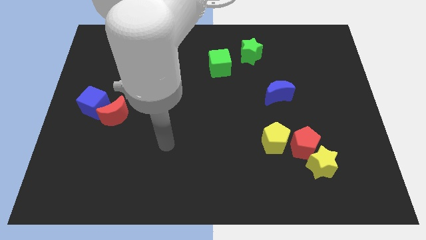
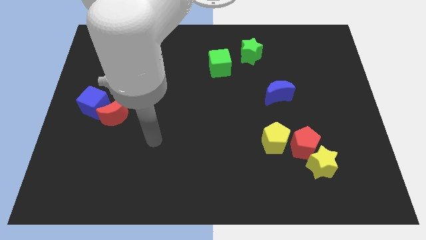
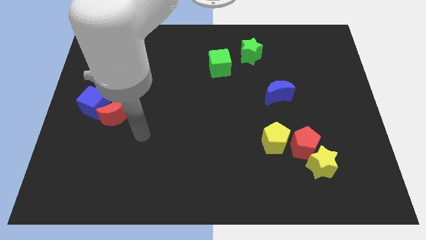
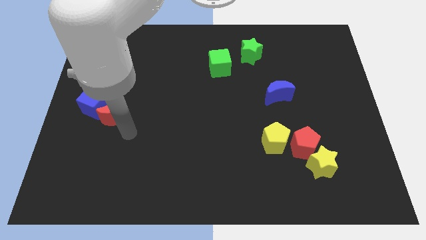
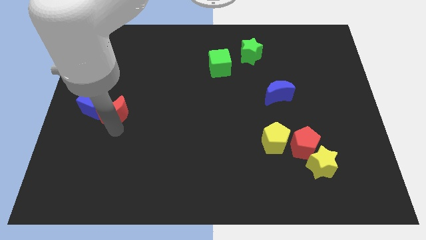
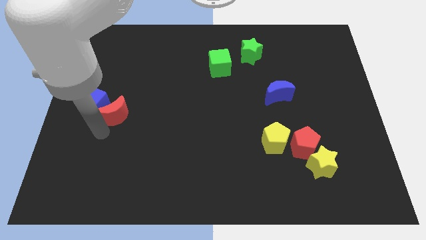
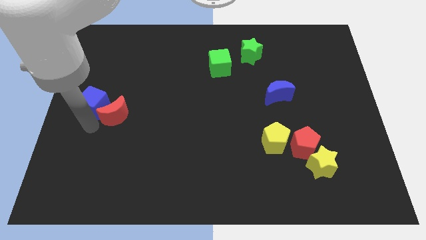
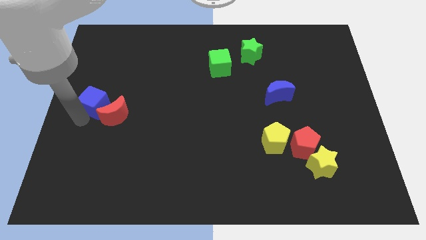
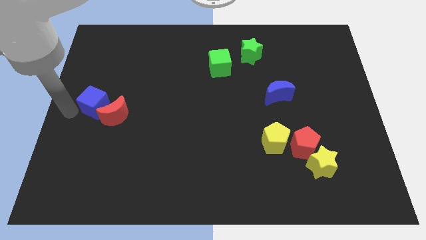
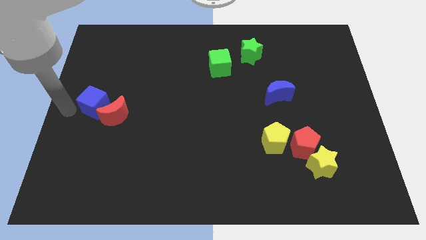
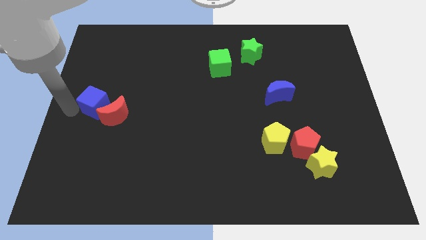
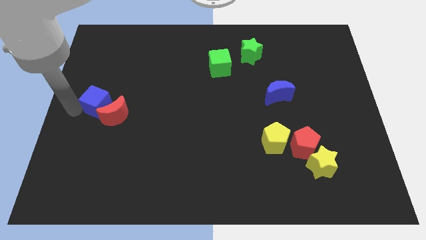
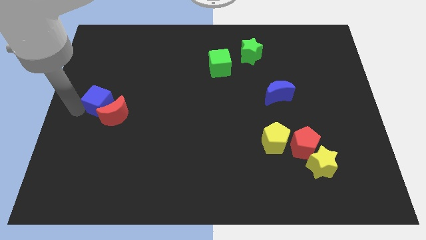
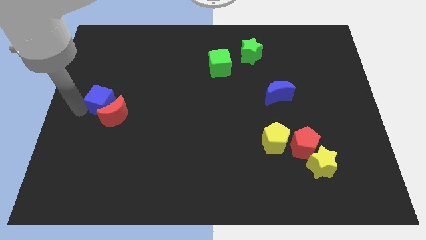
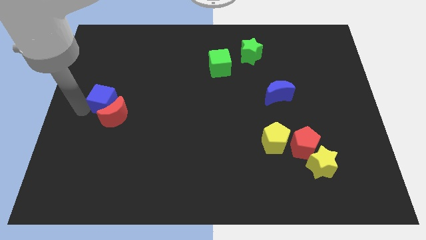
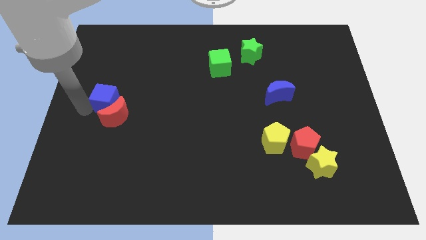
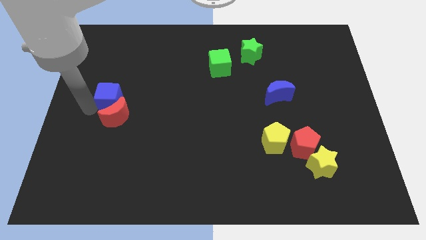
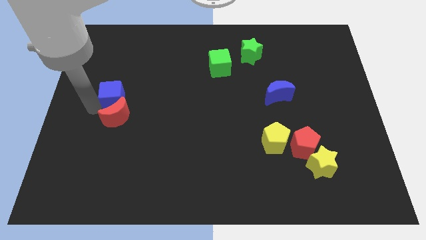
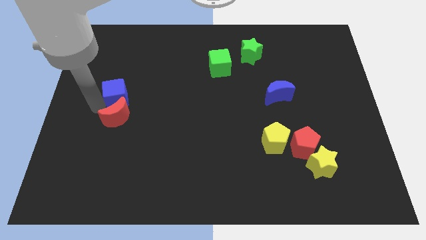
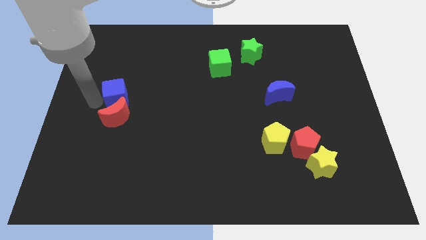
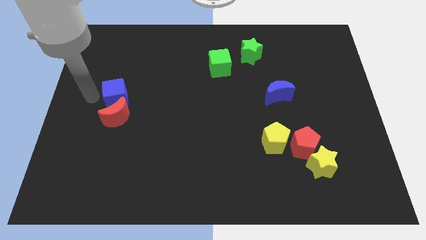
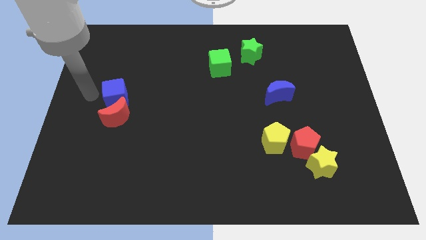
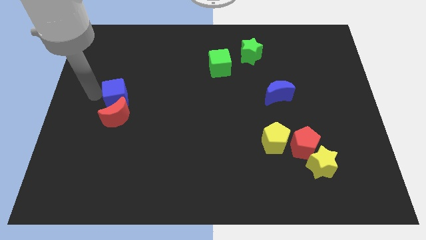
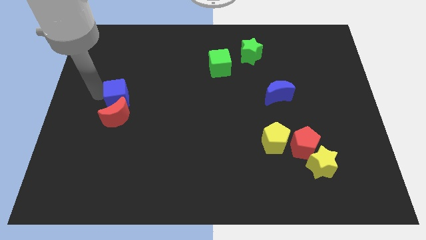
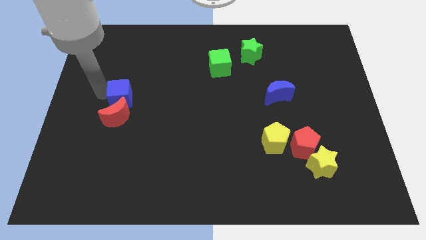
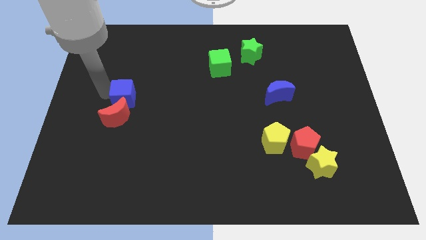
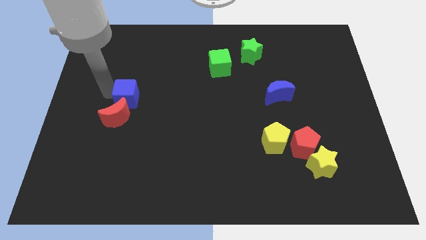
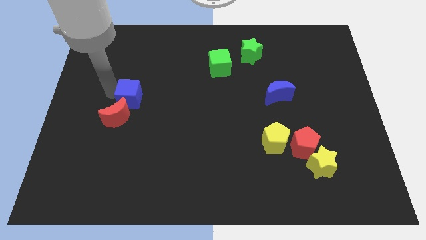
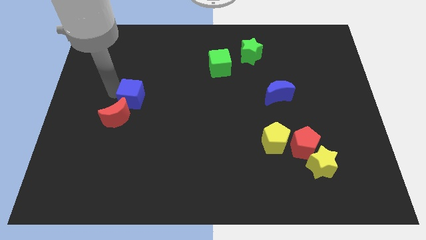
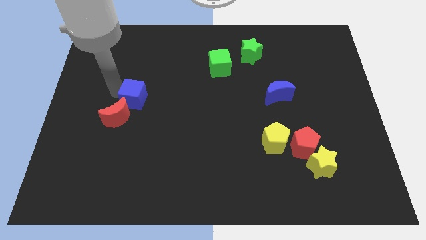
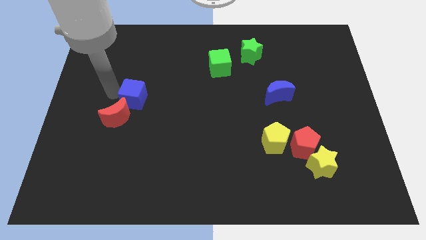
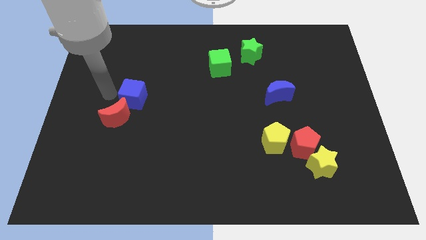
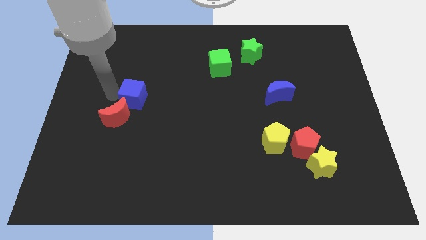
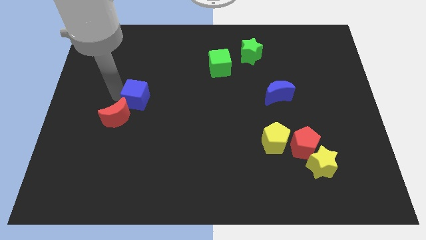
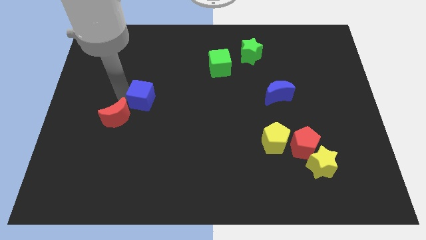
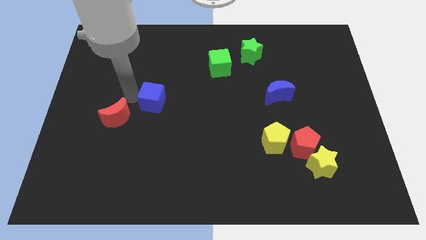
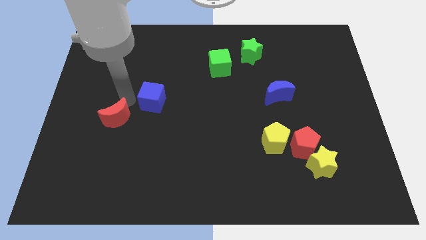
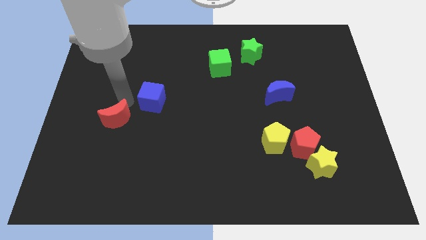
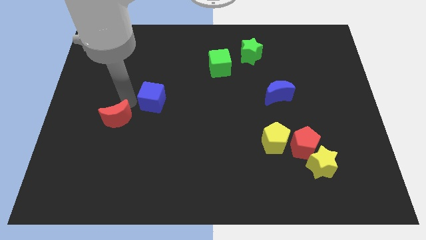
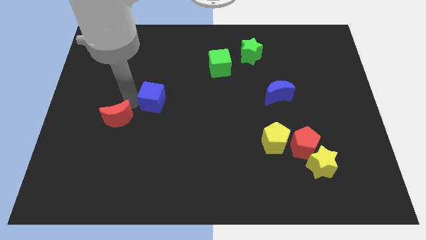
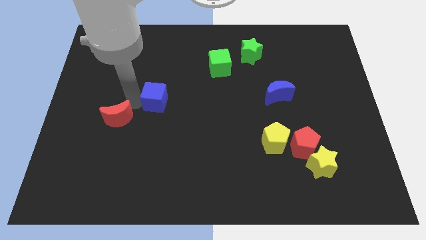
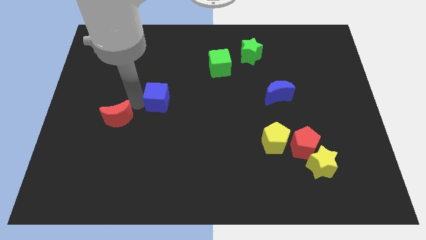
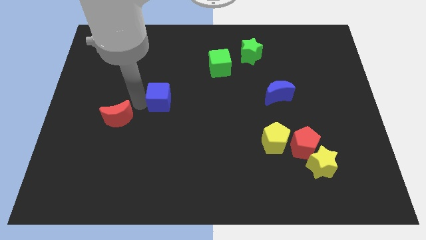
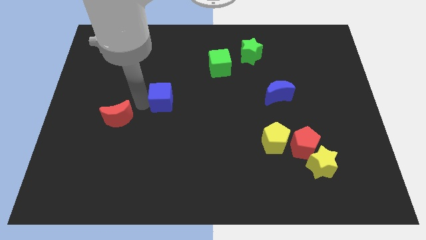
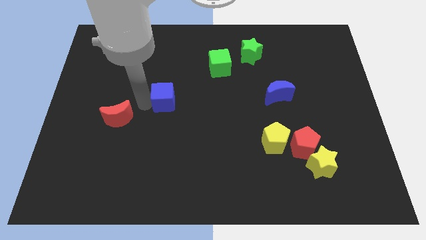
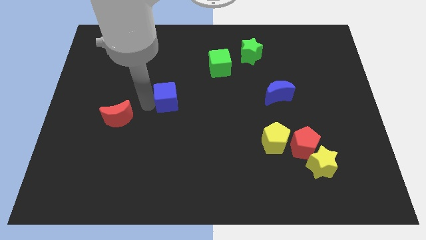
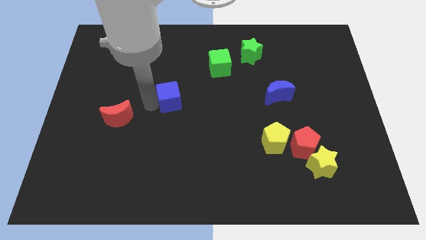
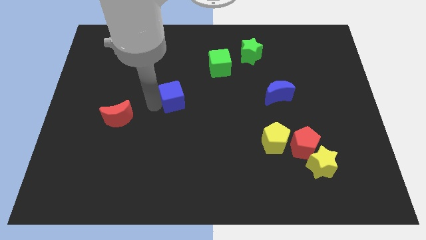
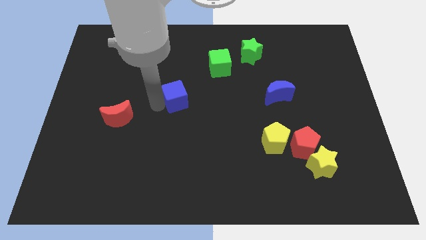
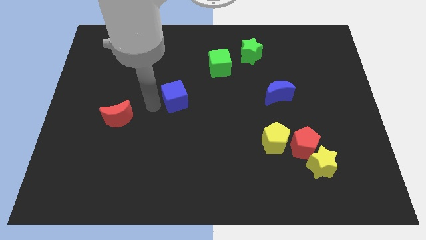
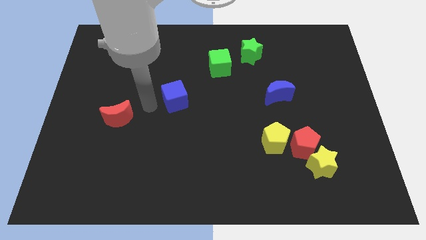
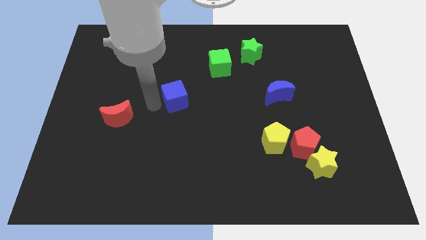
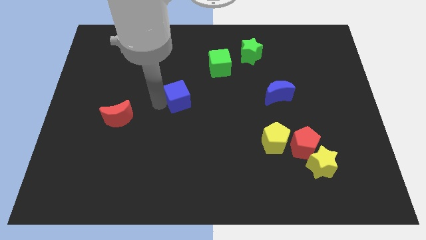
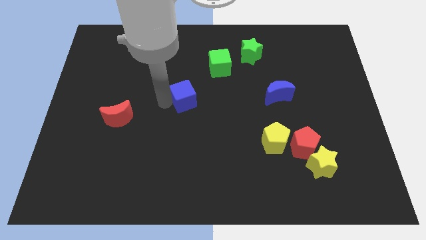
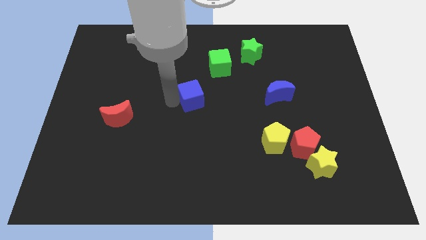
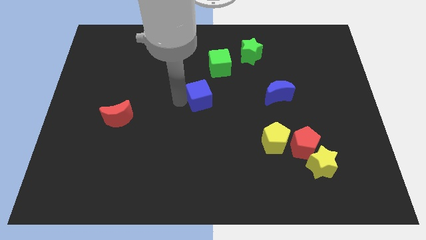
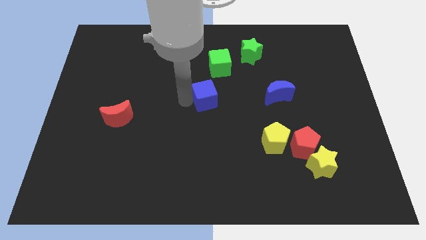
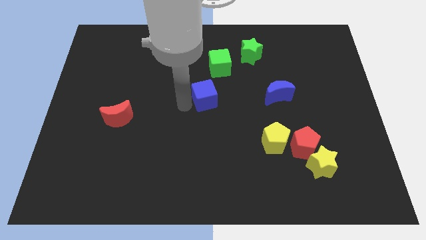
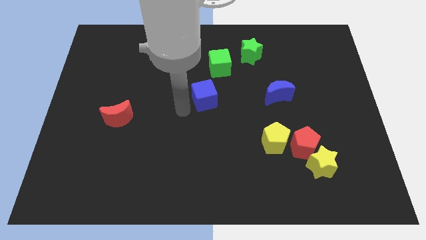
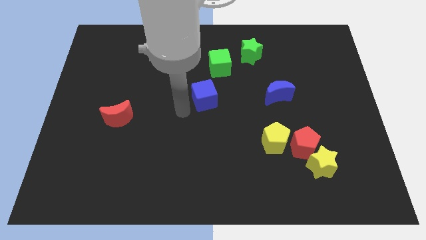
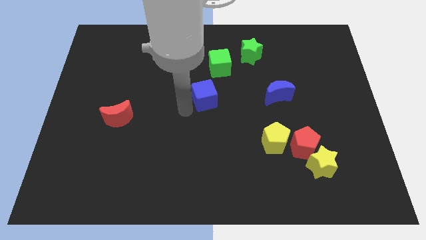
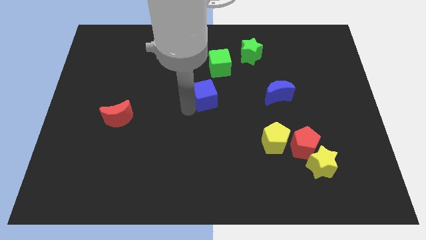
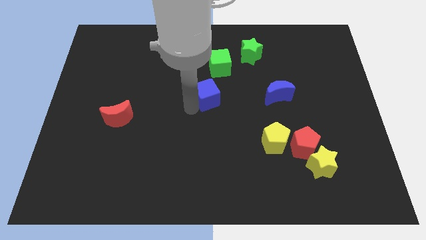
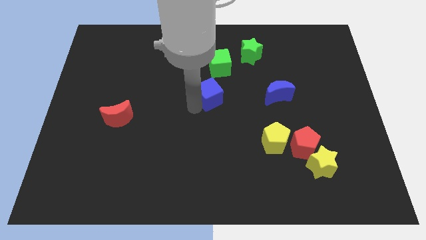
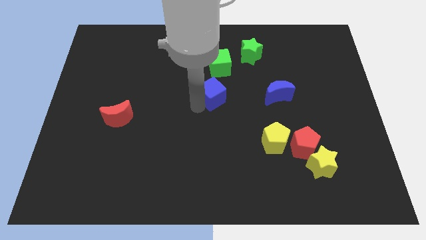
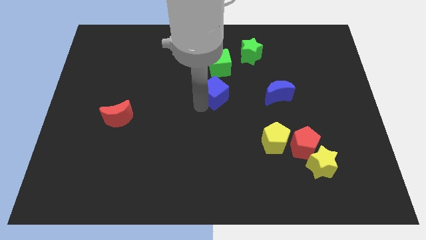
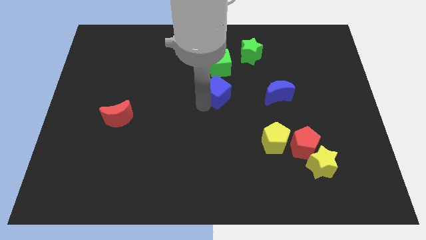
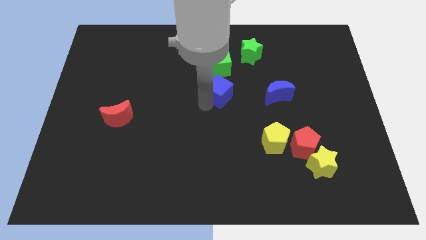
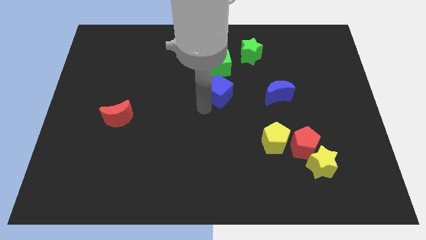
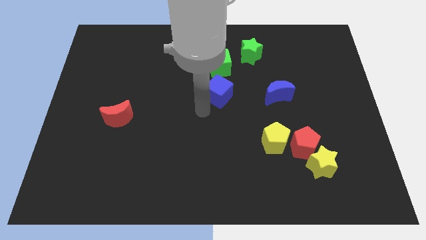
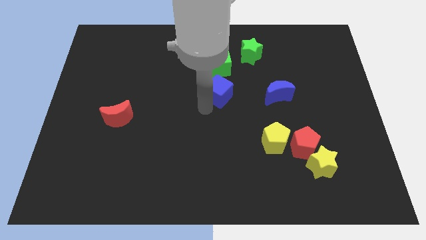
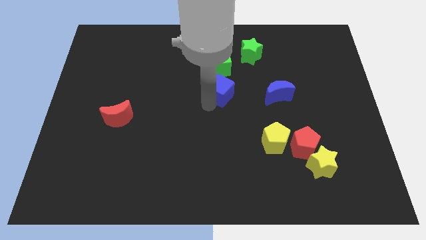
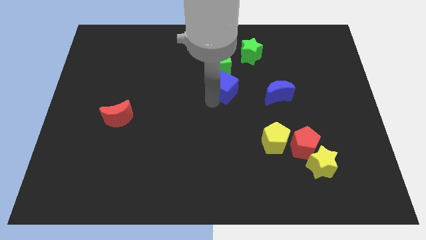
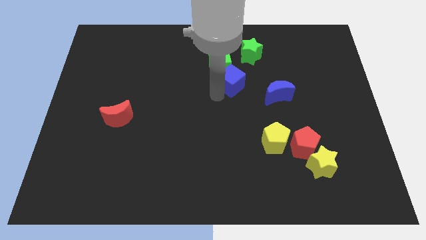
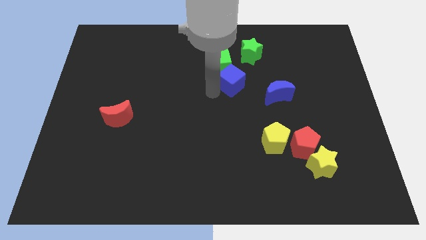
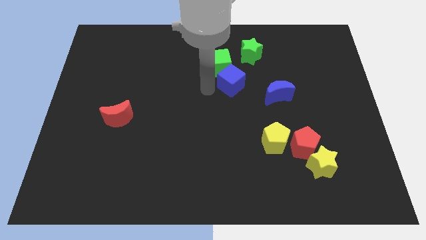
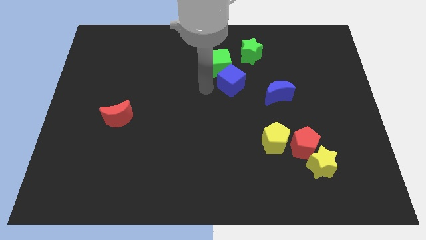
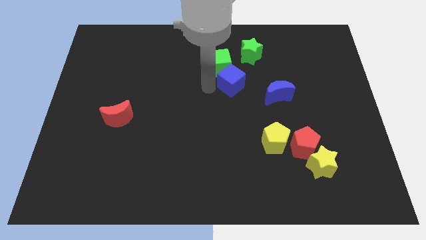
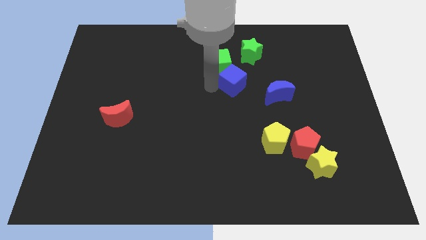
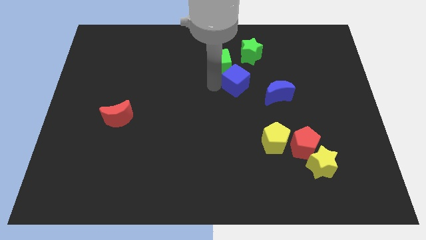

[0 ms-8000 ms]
put the blue cube to the top left of the blue moon
